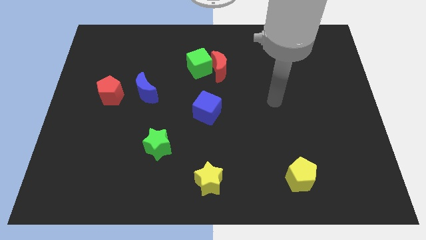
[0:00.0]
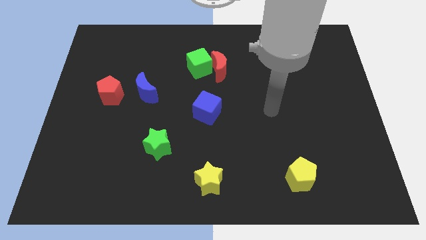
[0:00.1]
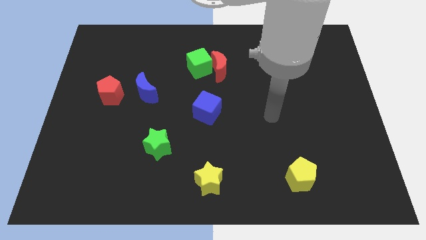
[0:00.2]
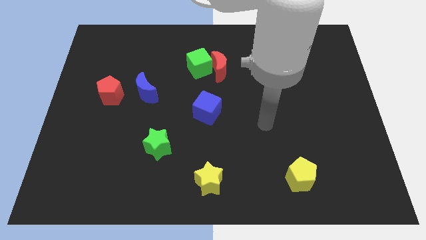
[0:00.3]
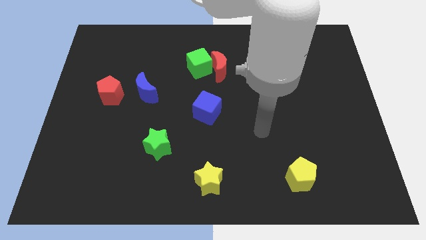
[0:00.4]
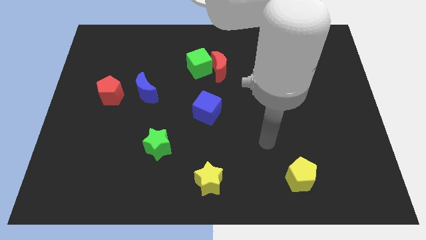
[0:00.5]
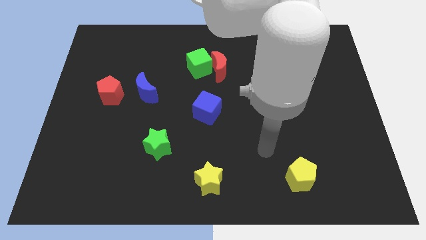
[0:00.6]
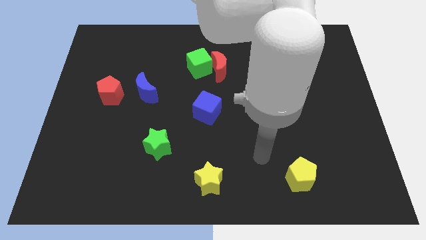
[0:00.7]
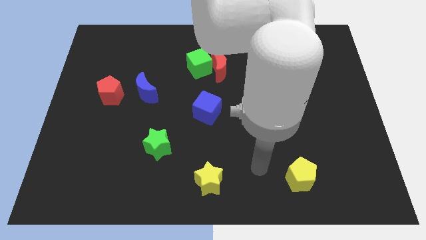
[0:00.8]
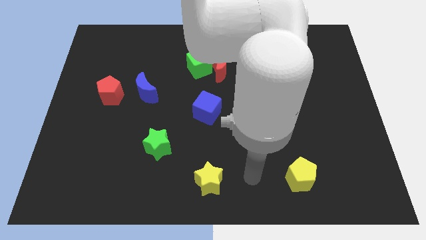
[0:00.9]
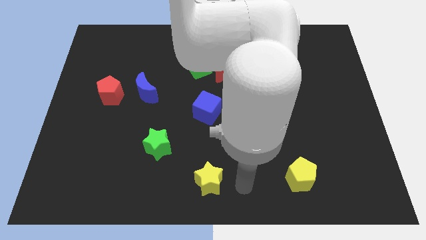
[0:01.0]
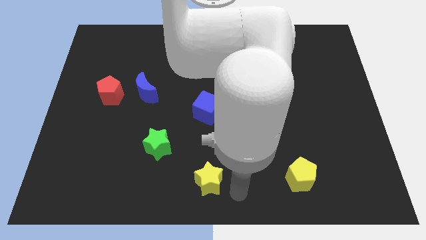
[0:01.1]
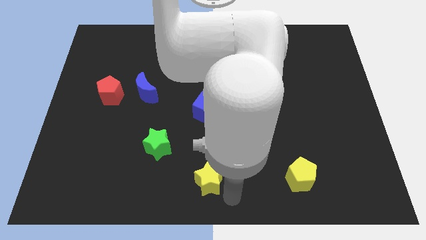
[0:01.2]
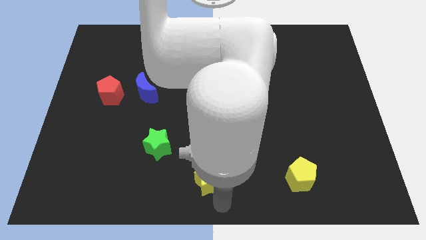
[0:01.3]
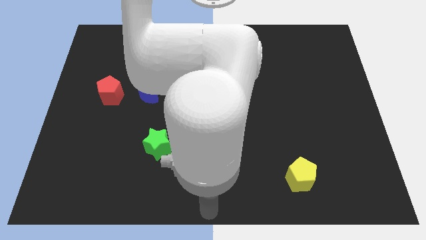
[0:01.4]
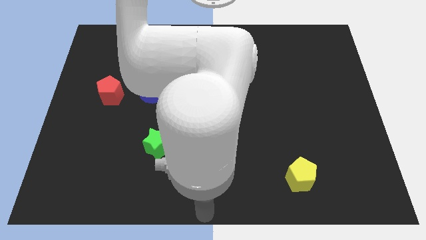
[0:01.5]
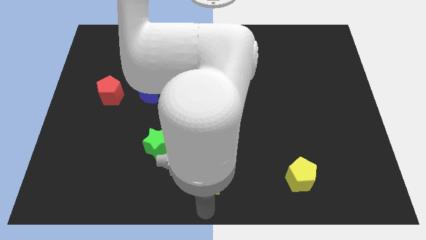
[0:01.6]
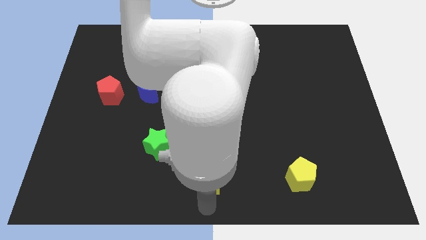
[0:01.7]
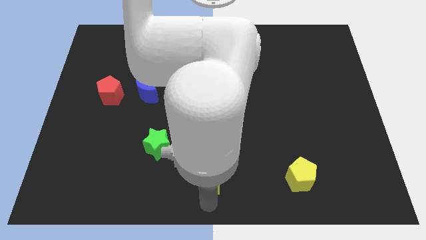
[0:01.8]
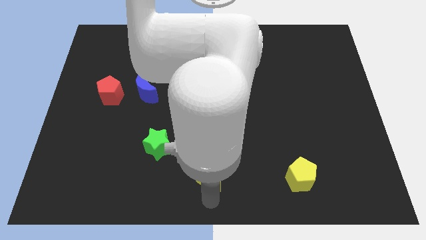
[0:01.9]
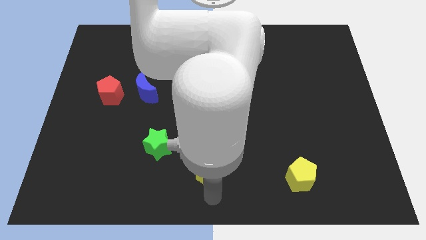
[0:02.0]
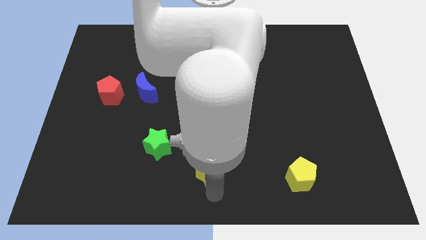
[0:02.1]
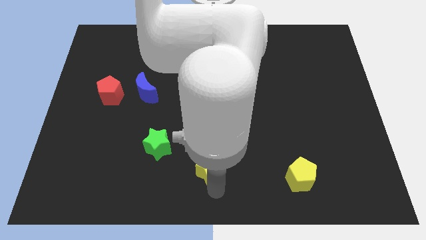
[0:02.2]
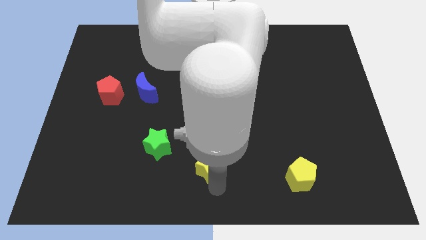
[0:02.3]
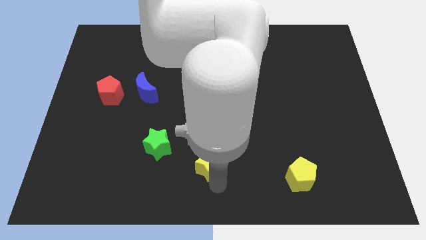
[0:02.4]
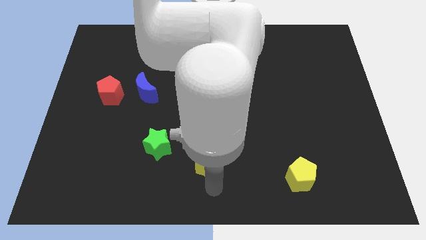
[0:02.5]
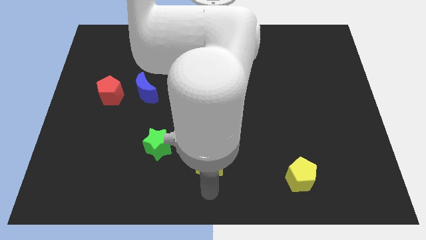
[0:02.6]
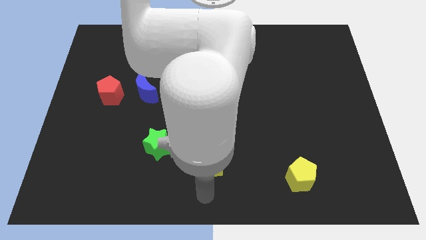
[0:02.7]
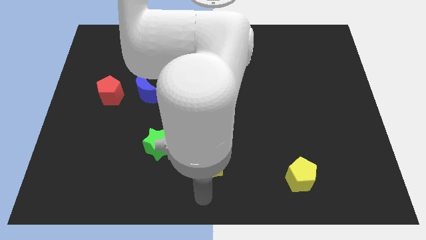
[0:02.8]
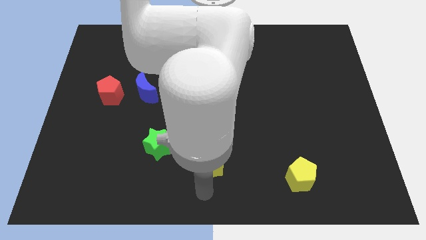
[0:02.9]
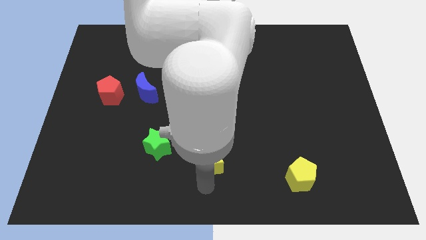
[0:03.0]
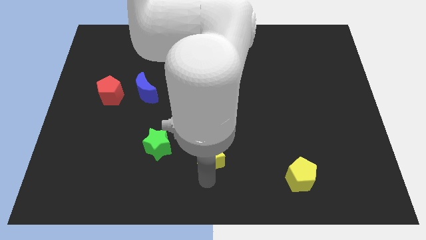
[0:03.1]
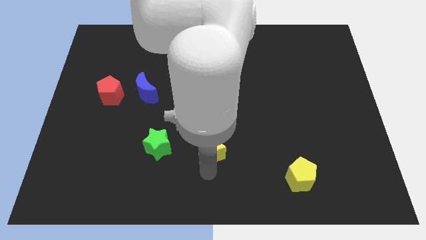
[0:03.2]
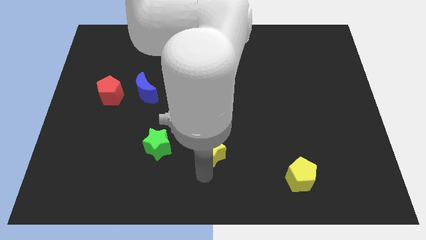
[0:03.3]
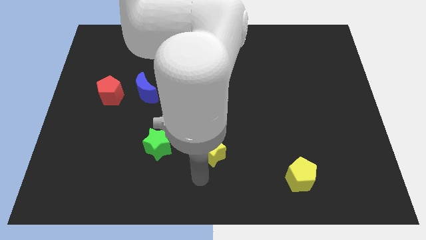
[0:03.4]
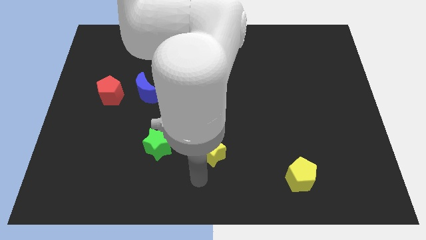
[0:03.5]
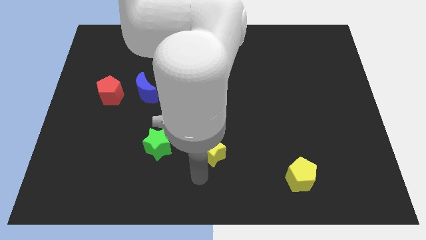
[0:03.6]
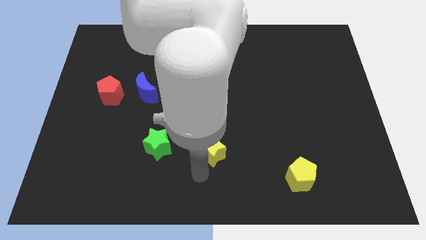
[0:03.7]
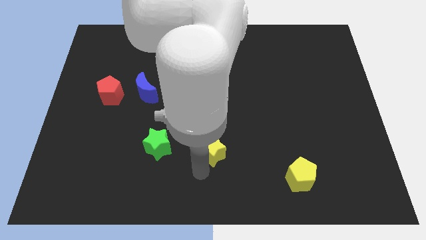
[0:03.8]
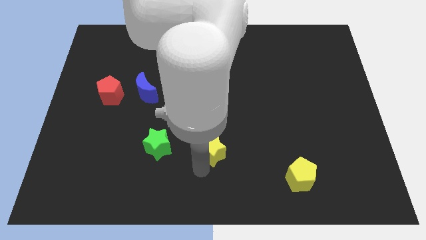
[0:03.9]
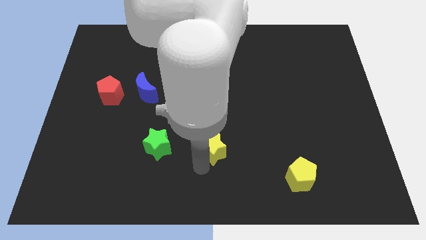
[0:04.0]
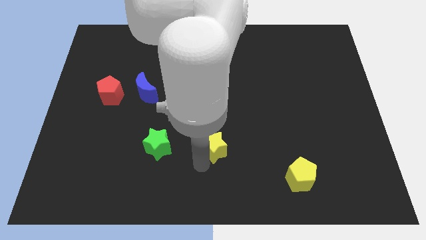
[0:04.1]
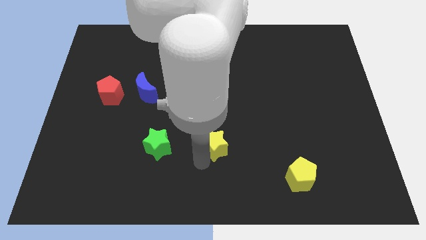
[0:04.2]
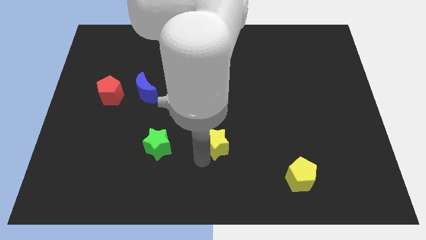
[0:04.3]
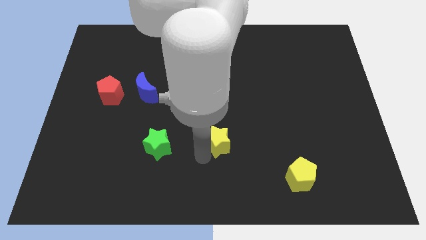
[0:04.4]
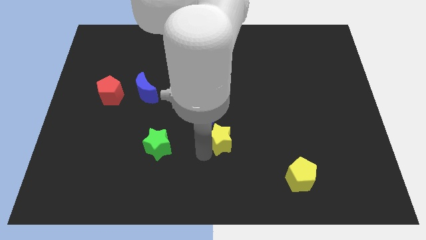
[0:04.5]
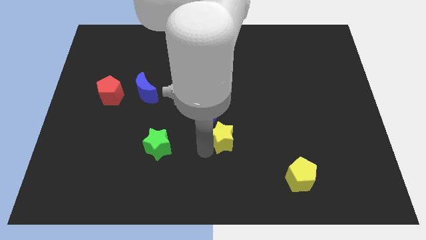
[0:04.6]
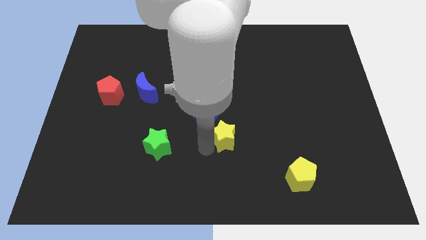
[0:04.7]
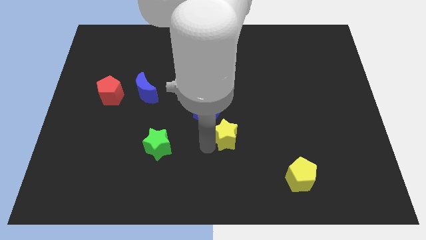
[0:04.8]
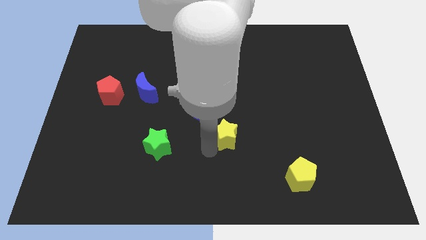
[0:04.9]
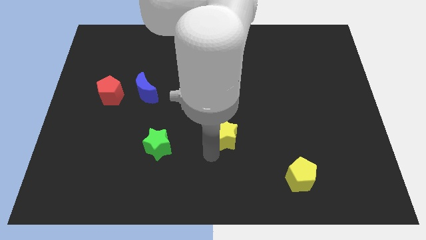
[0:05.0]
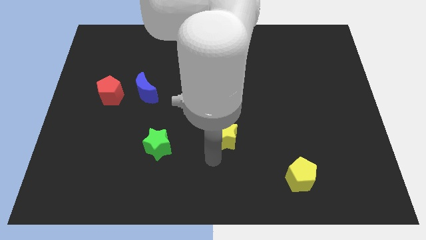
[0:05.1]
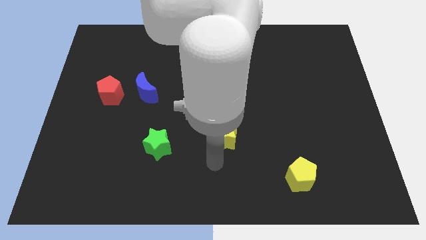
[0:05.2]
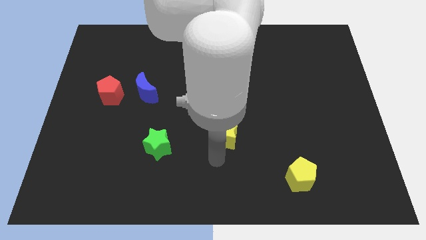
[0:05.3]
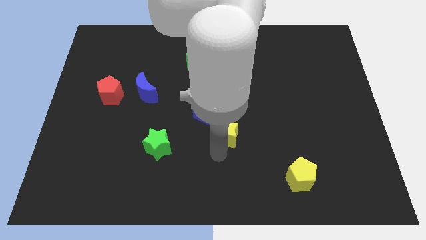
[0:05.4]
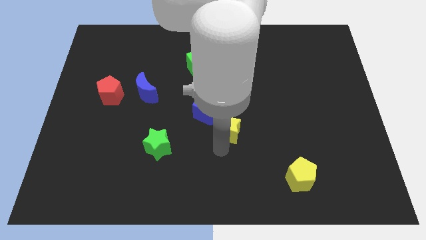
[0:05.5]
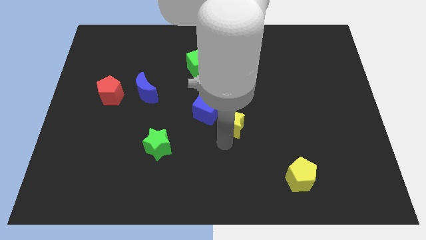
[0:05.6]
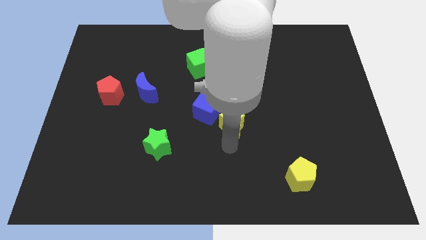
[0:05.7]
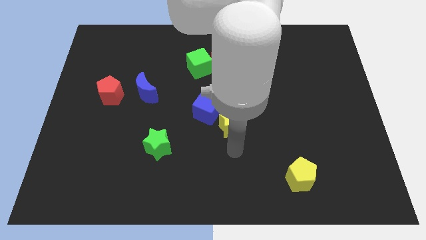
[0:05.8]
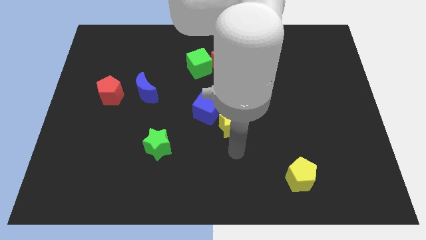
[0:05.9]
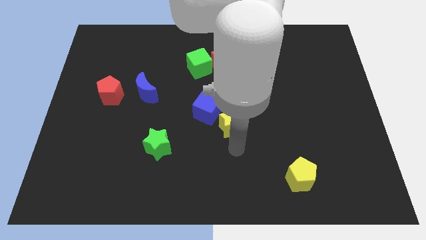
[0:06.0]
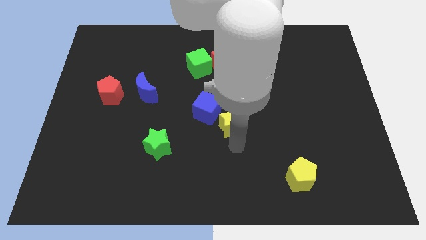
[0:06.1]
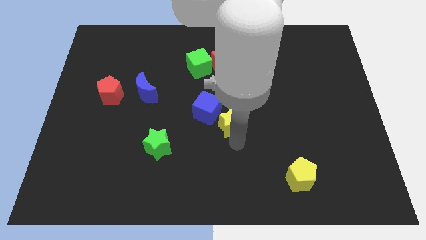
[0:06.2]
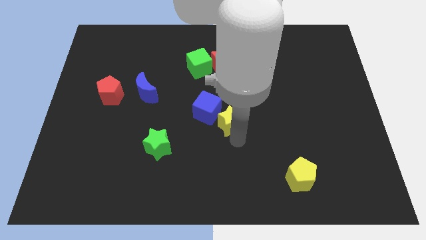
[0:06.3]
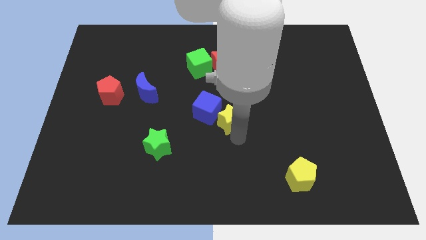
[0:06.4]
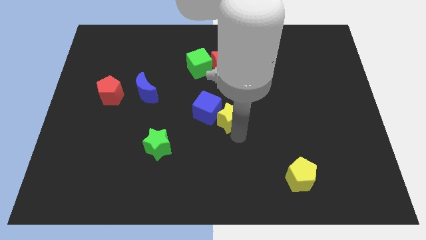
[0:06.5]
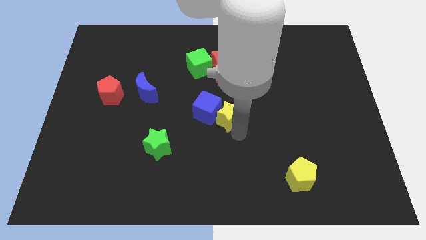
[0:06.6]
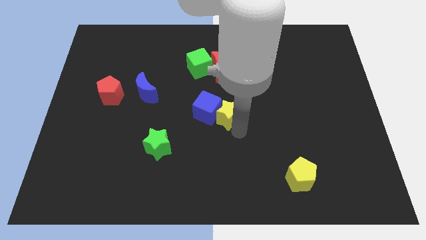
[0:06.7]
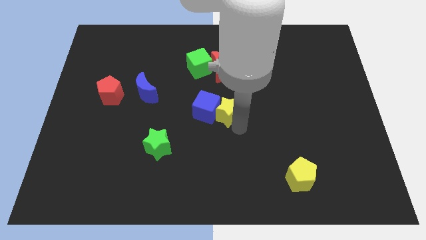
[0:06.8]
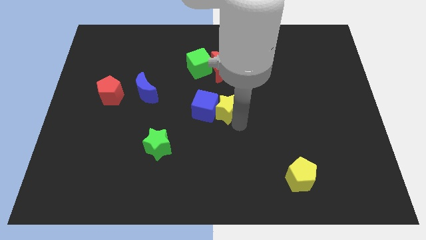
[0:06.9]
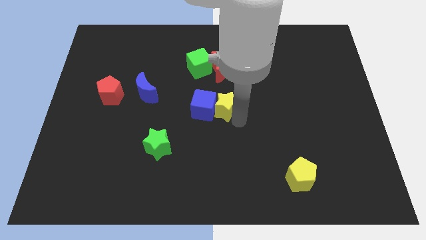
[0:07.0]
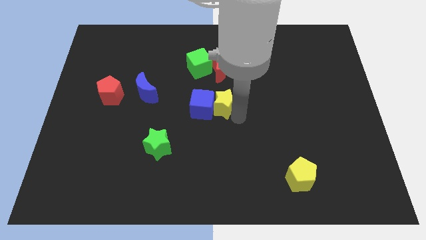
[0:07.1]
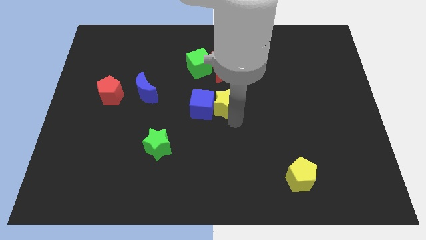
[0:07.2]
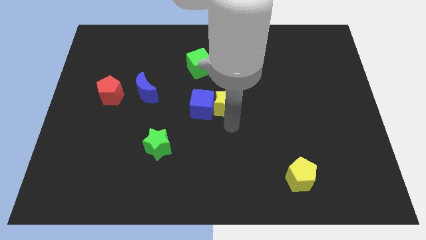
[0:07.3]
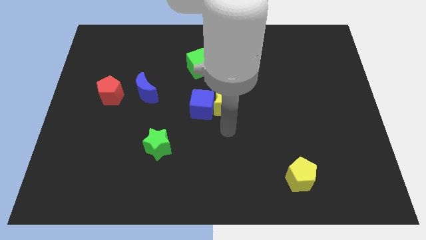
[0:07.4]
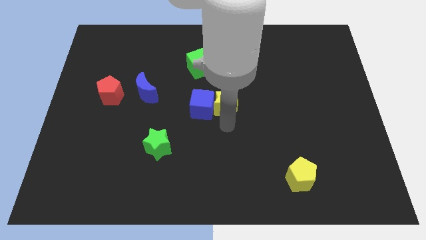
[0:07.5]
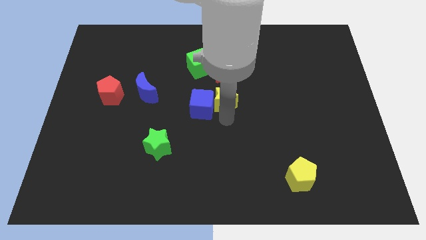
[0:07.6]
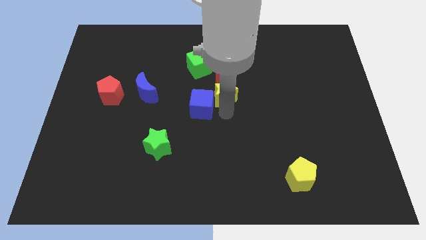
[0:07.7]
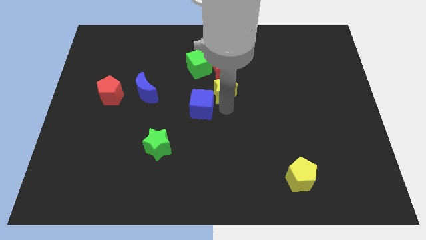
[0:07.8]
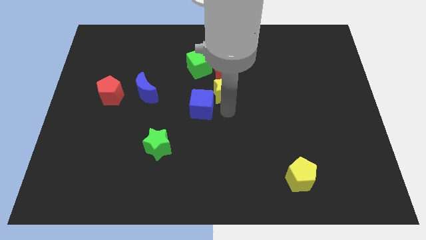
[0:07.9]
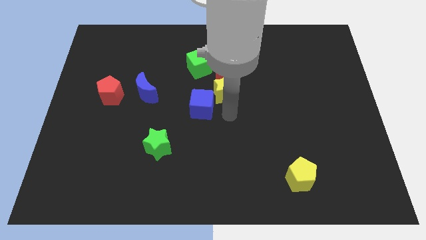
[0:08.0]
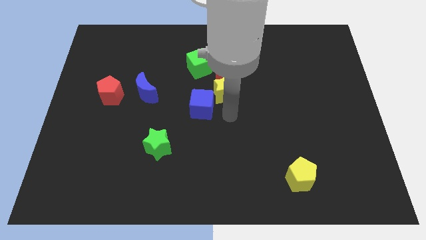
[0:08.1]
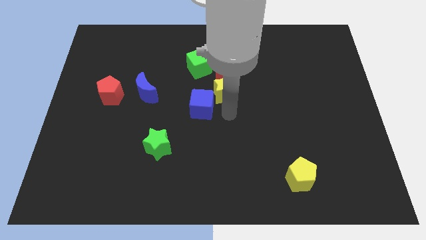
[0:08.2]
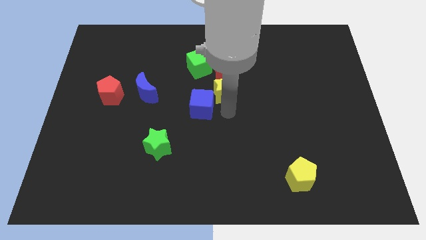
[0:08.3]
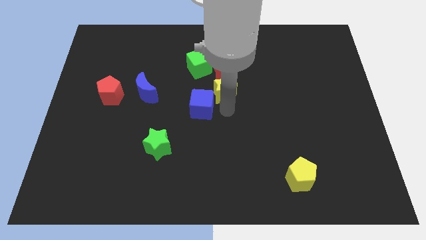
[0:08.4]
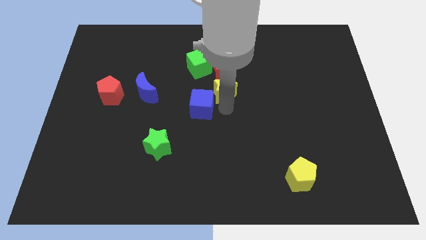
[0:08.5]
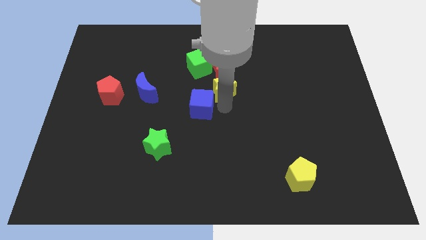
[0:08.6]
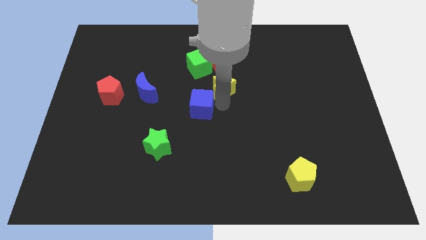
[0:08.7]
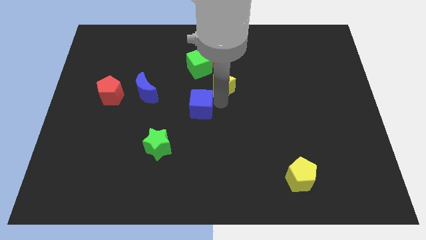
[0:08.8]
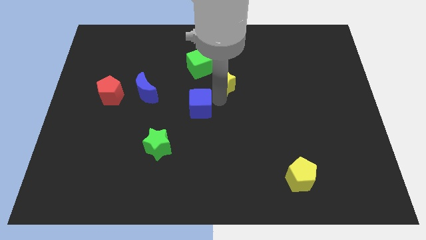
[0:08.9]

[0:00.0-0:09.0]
slide the yellow star towards the red moon
